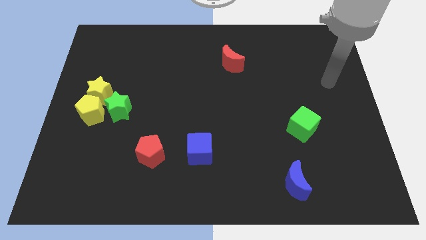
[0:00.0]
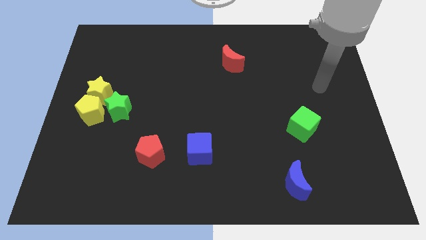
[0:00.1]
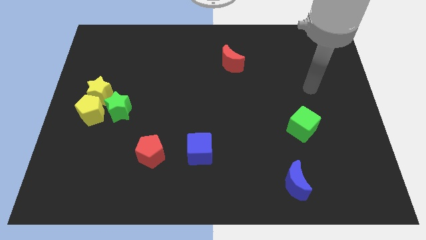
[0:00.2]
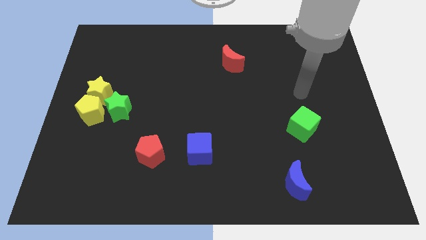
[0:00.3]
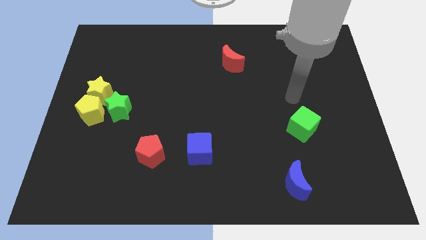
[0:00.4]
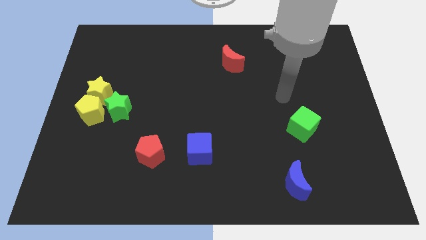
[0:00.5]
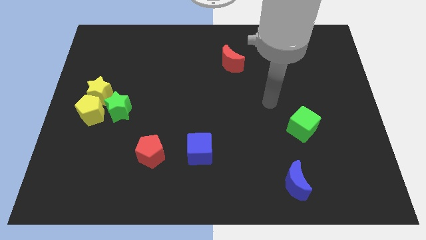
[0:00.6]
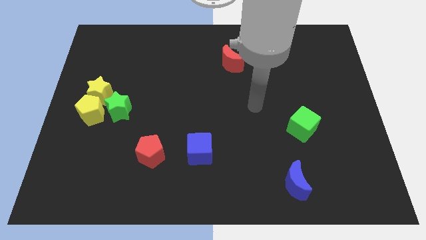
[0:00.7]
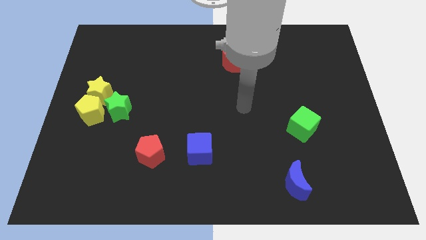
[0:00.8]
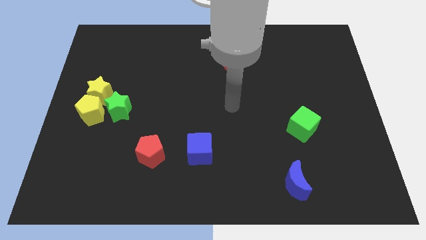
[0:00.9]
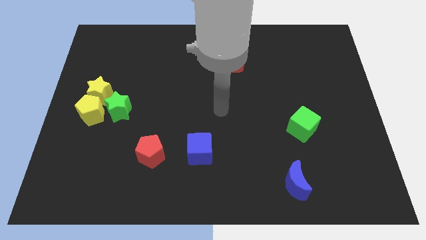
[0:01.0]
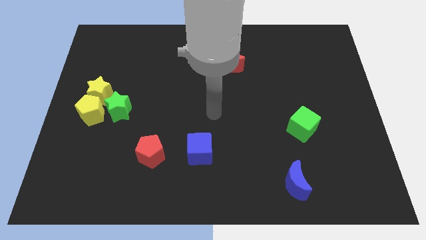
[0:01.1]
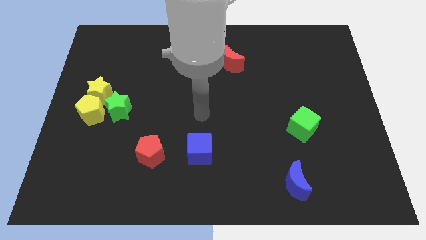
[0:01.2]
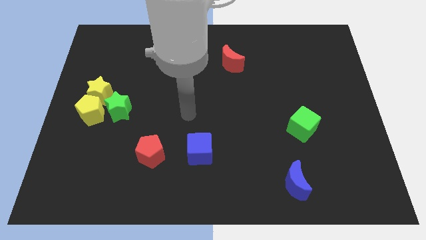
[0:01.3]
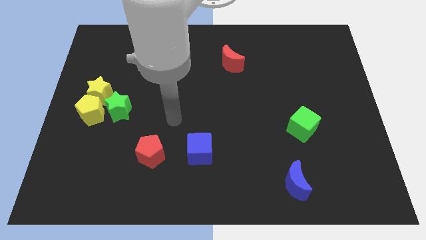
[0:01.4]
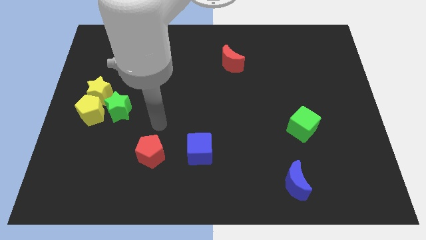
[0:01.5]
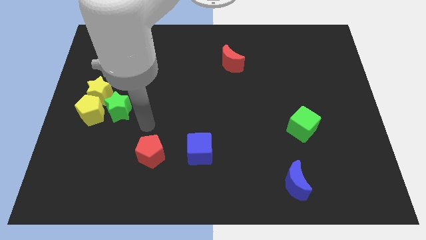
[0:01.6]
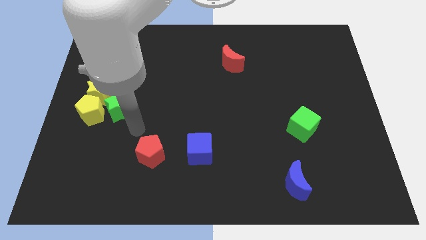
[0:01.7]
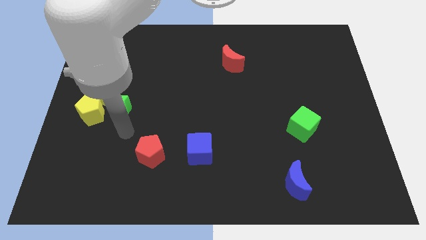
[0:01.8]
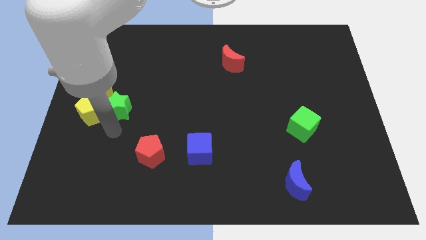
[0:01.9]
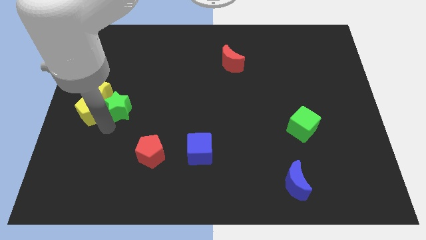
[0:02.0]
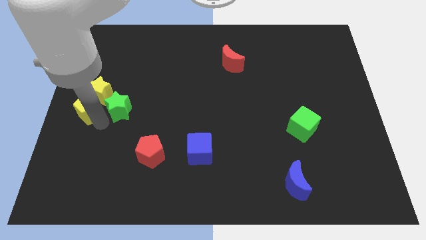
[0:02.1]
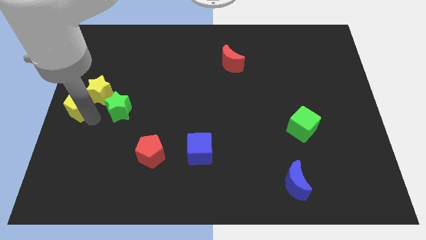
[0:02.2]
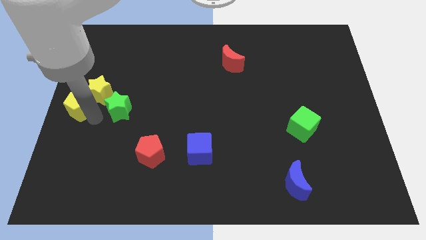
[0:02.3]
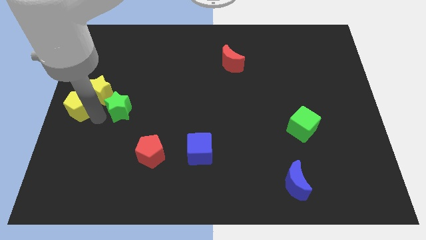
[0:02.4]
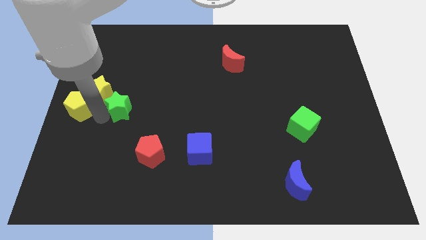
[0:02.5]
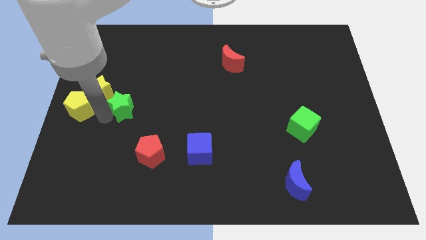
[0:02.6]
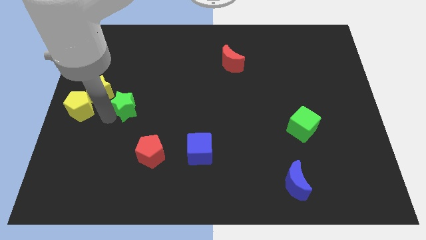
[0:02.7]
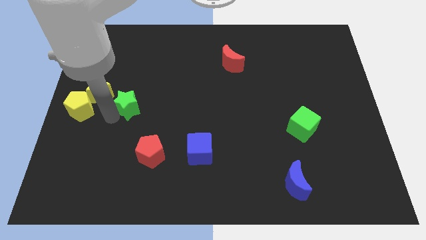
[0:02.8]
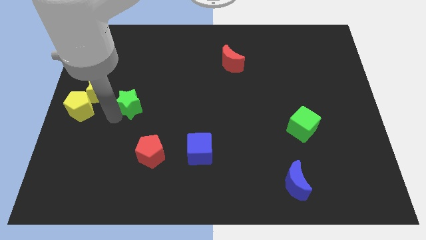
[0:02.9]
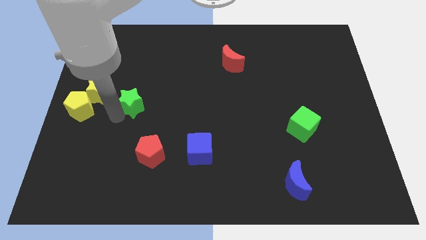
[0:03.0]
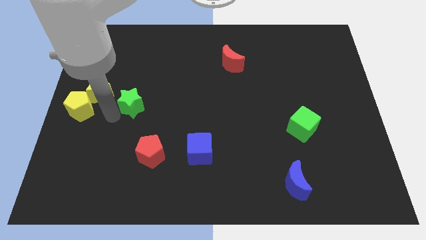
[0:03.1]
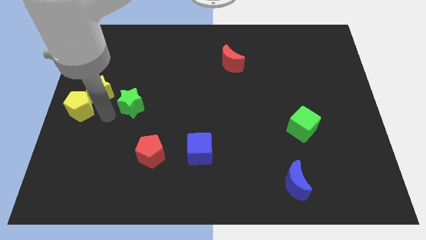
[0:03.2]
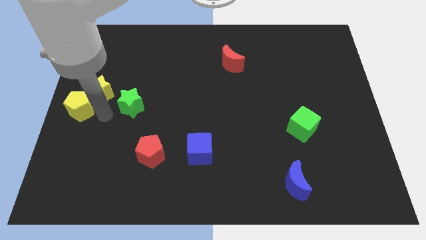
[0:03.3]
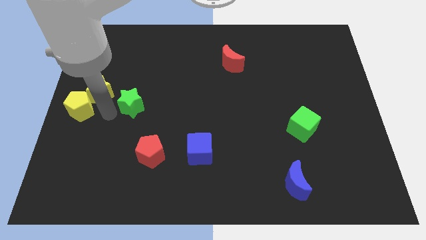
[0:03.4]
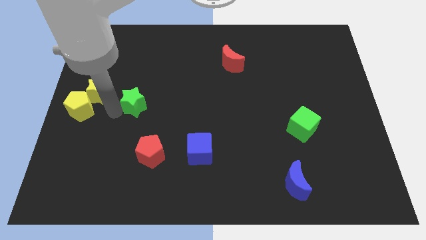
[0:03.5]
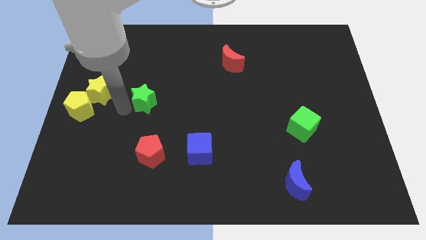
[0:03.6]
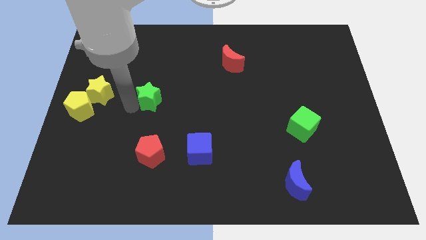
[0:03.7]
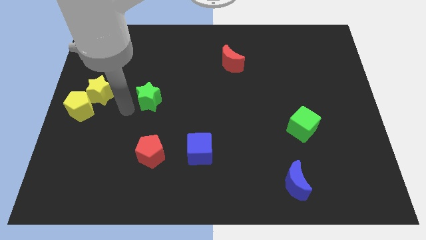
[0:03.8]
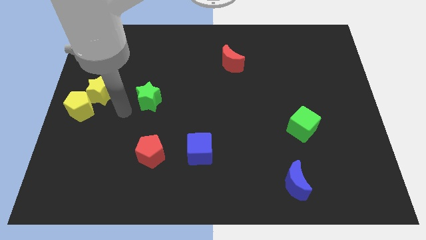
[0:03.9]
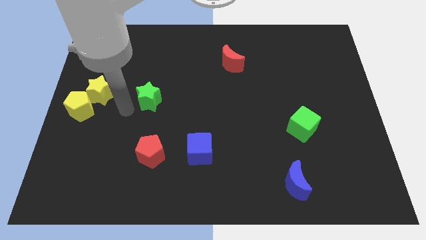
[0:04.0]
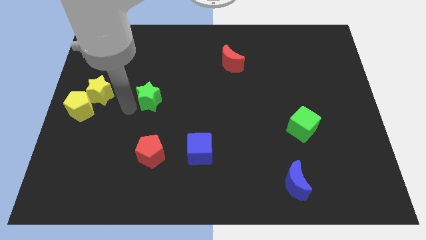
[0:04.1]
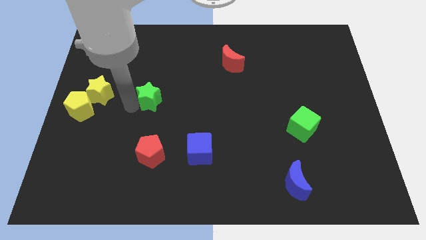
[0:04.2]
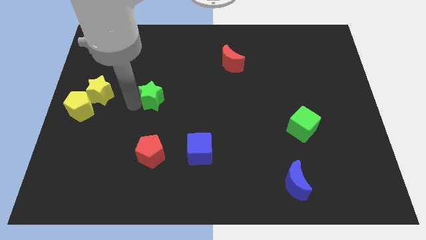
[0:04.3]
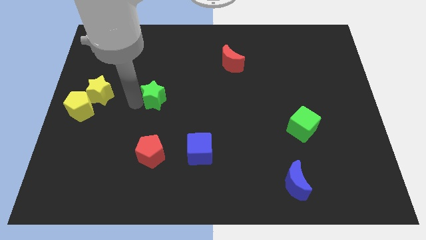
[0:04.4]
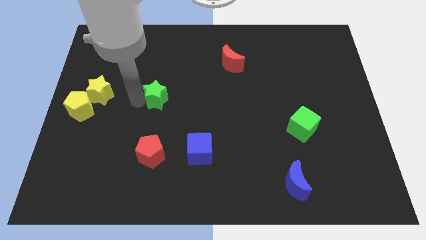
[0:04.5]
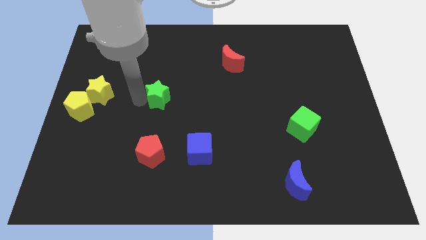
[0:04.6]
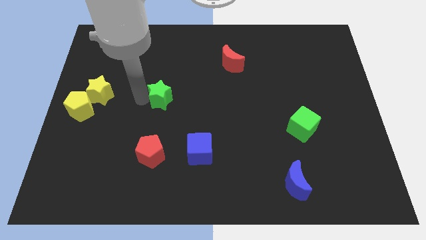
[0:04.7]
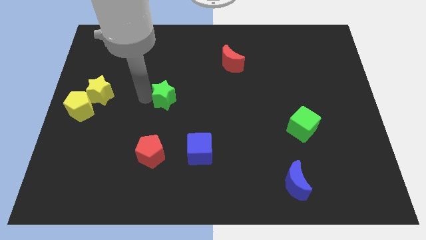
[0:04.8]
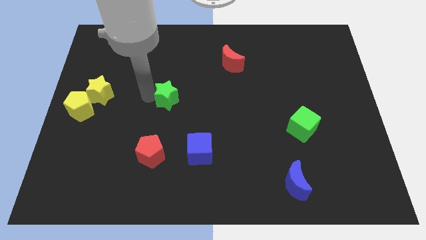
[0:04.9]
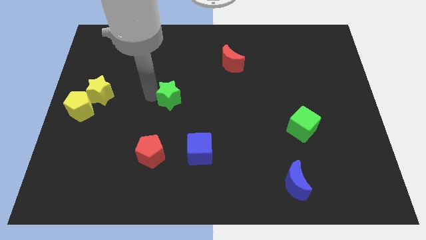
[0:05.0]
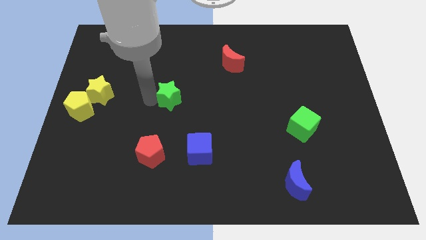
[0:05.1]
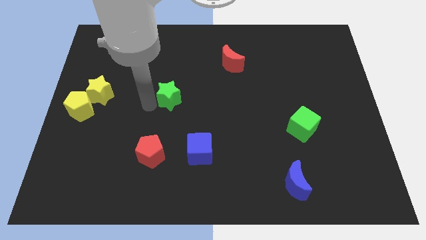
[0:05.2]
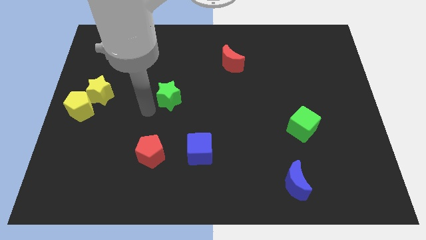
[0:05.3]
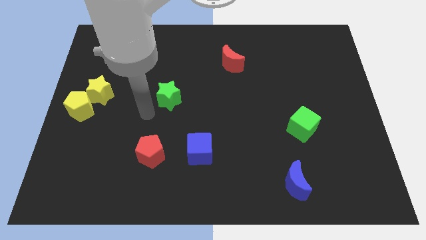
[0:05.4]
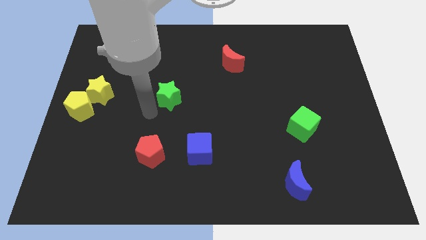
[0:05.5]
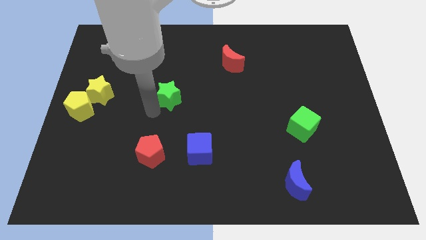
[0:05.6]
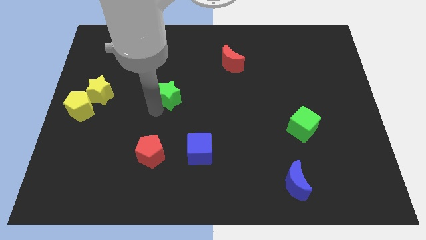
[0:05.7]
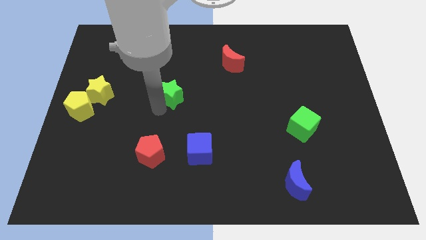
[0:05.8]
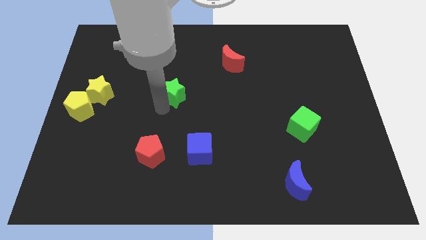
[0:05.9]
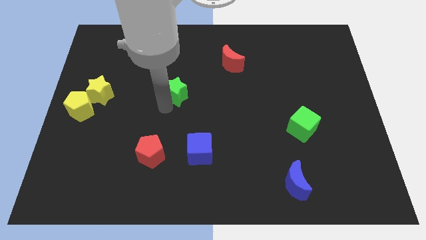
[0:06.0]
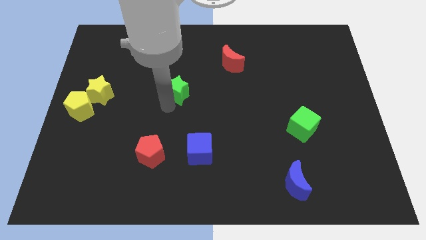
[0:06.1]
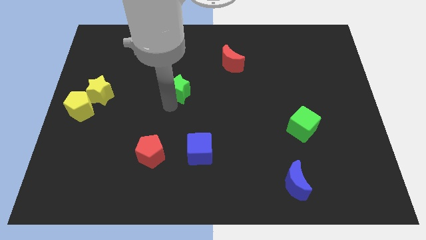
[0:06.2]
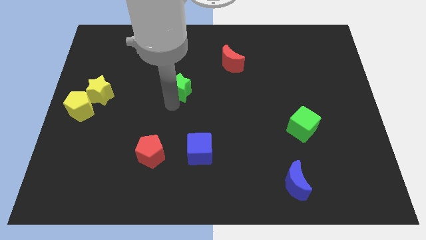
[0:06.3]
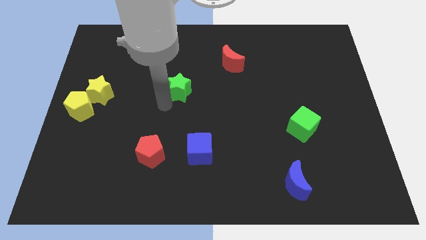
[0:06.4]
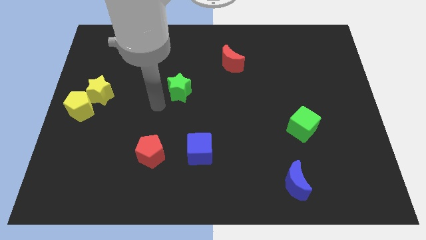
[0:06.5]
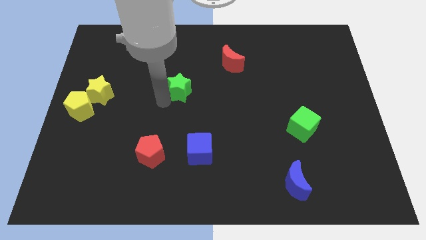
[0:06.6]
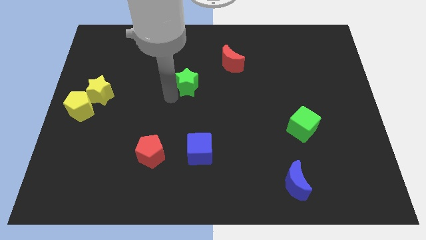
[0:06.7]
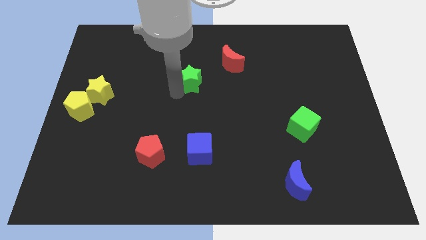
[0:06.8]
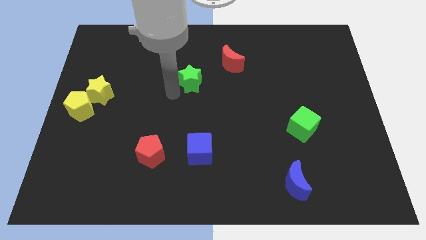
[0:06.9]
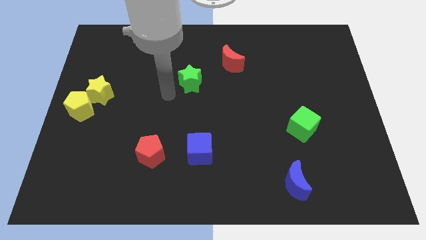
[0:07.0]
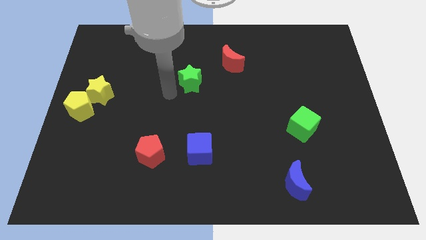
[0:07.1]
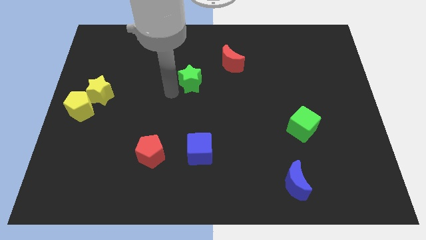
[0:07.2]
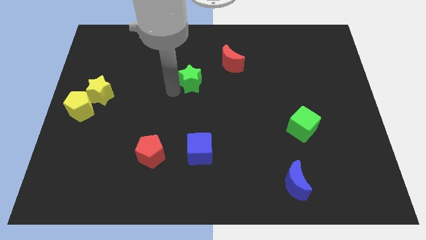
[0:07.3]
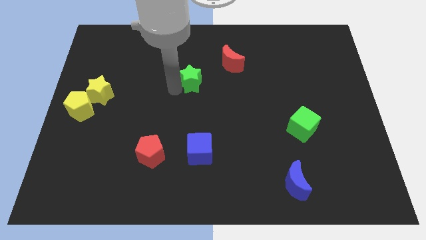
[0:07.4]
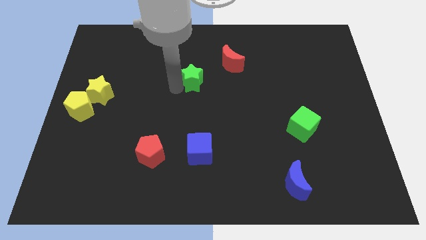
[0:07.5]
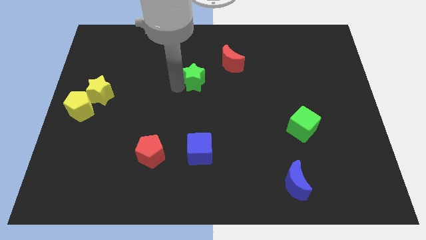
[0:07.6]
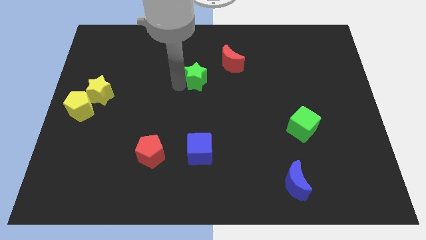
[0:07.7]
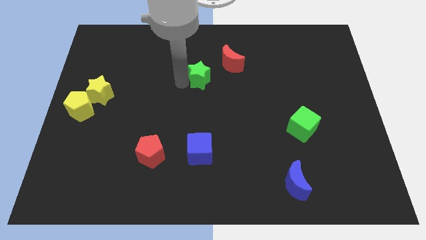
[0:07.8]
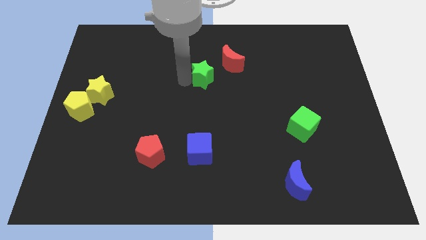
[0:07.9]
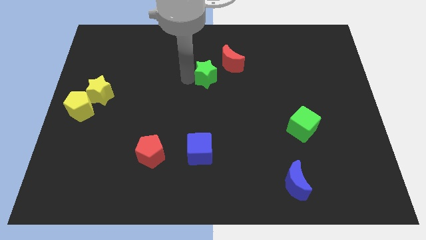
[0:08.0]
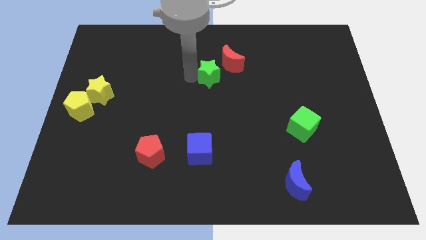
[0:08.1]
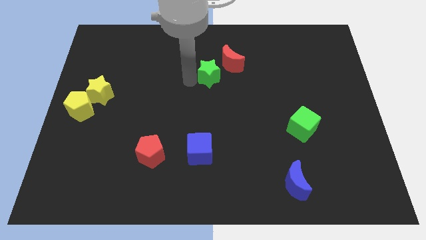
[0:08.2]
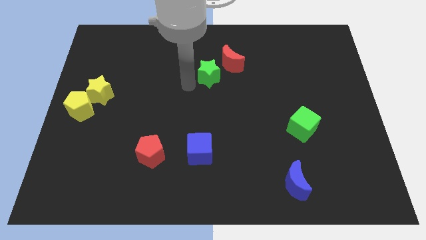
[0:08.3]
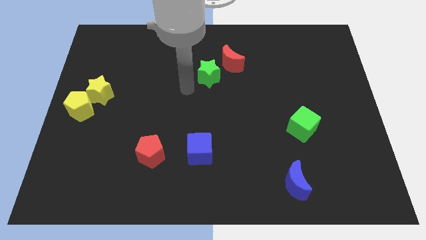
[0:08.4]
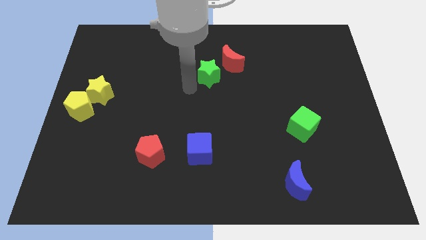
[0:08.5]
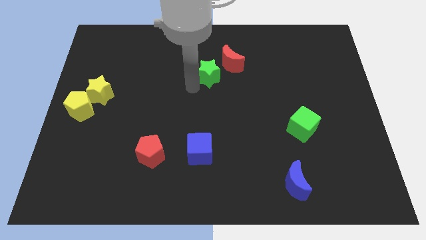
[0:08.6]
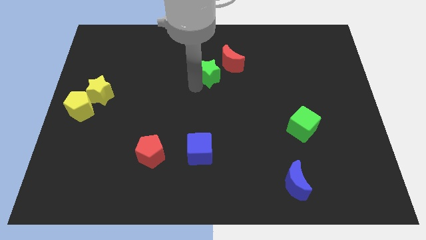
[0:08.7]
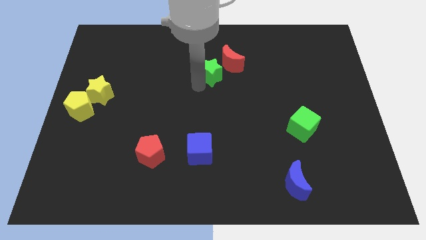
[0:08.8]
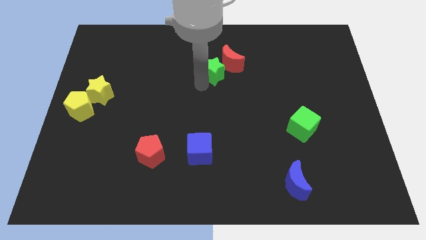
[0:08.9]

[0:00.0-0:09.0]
put the green star to the red moon
